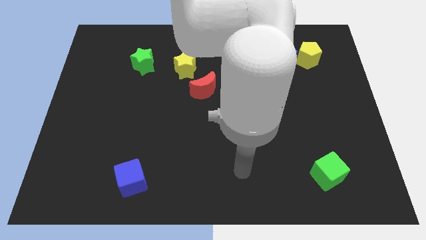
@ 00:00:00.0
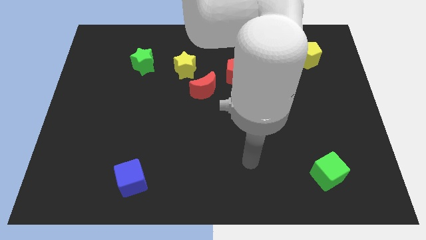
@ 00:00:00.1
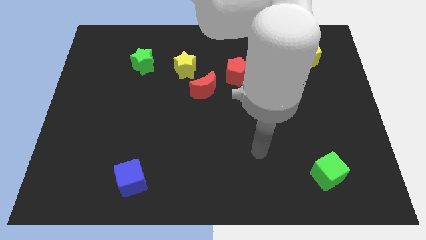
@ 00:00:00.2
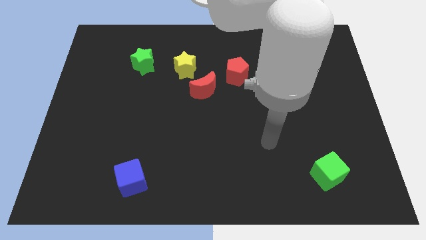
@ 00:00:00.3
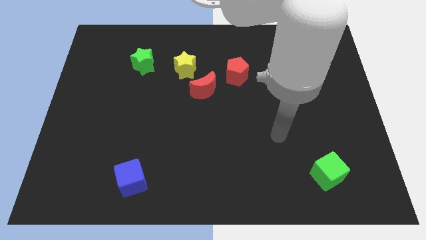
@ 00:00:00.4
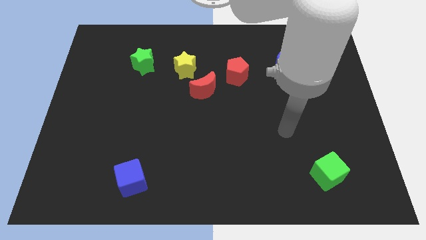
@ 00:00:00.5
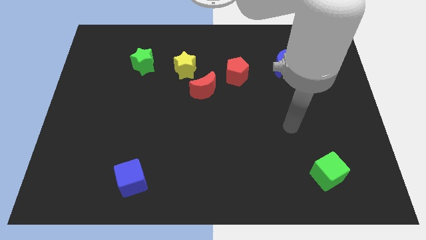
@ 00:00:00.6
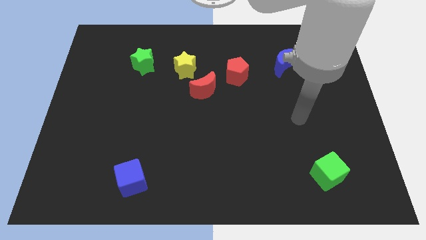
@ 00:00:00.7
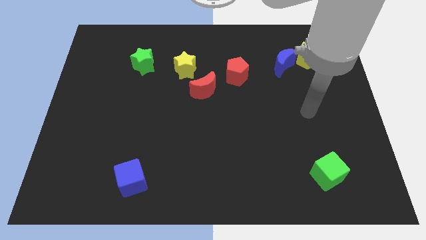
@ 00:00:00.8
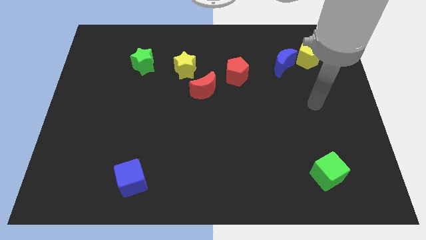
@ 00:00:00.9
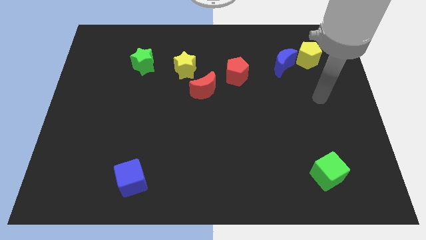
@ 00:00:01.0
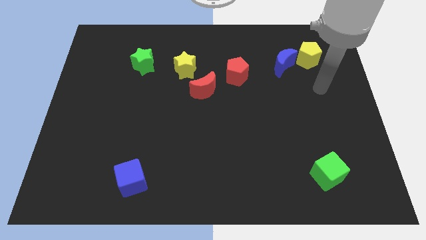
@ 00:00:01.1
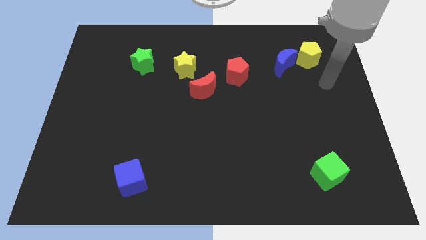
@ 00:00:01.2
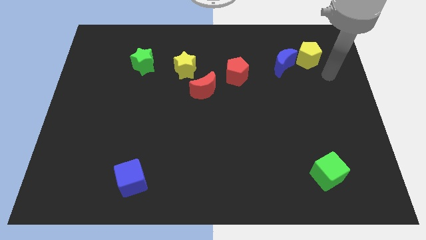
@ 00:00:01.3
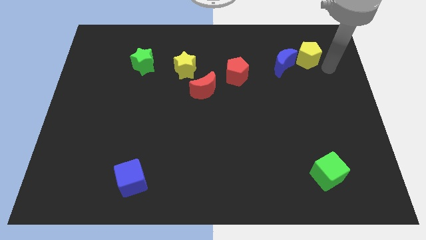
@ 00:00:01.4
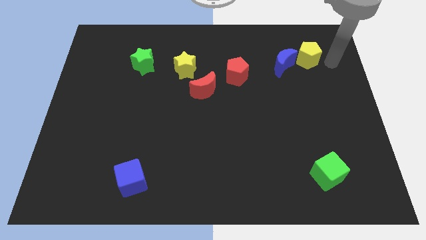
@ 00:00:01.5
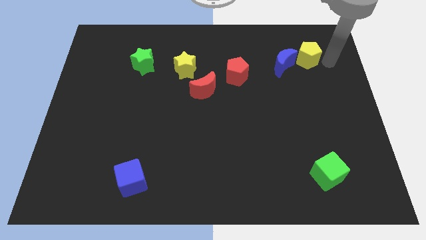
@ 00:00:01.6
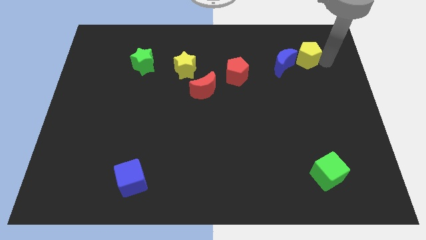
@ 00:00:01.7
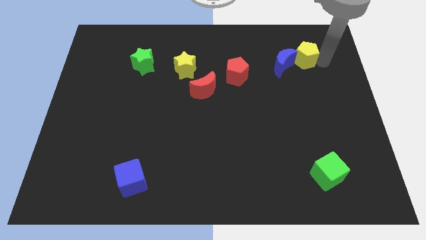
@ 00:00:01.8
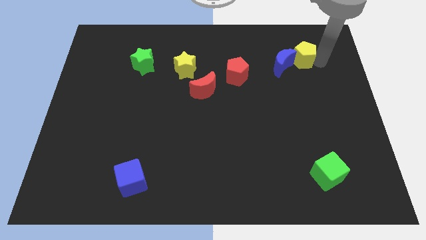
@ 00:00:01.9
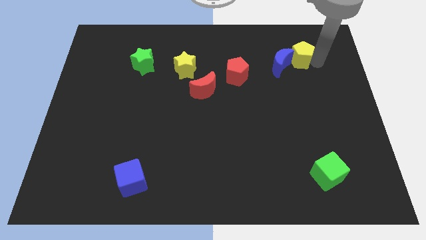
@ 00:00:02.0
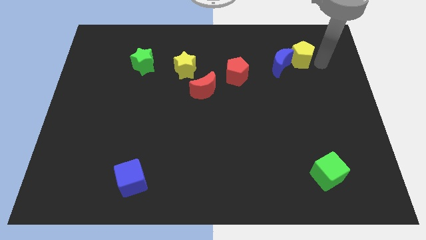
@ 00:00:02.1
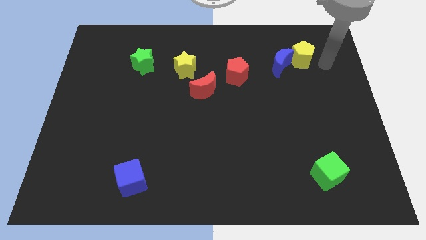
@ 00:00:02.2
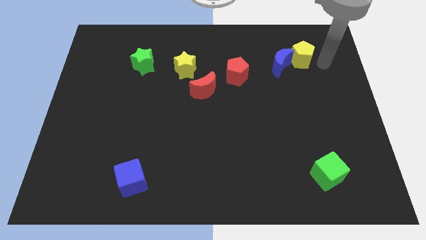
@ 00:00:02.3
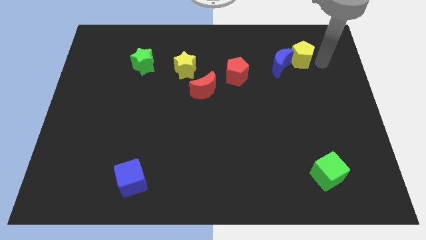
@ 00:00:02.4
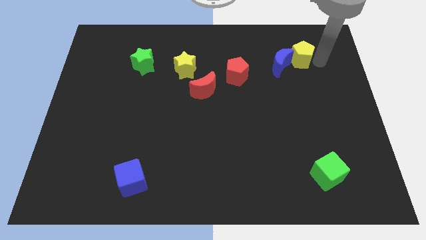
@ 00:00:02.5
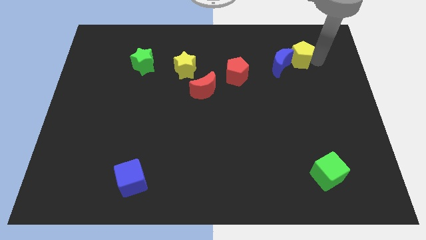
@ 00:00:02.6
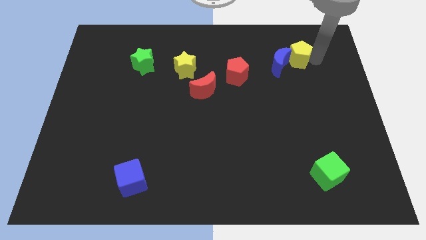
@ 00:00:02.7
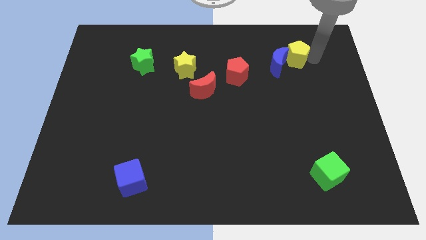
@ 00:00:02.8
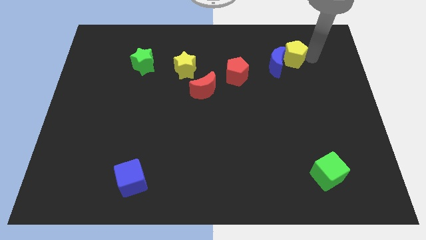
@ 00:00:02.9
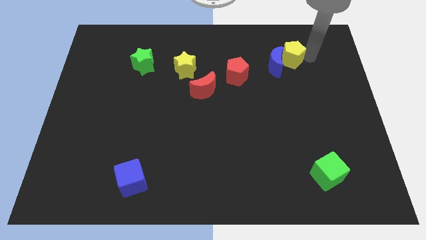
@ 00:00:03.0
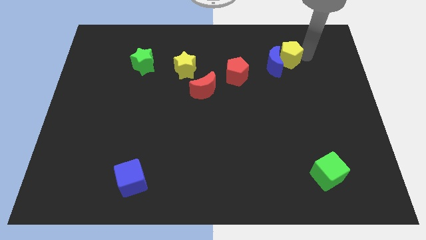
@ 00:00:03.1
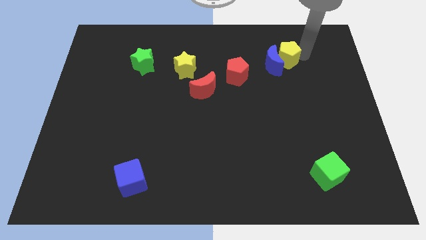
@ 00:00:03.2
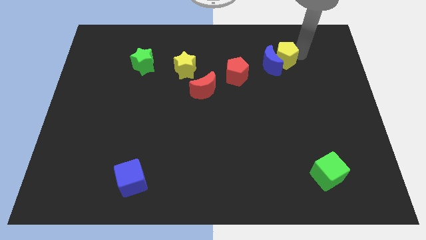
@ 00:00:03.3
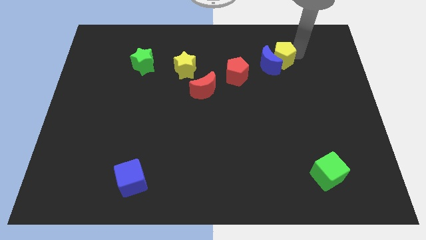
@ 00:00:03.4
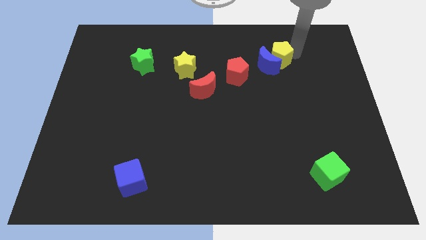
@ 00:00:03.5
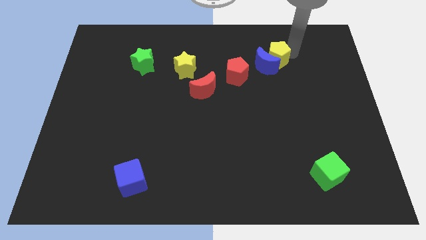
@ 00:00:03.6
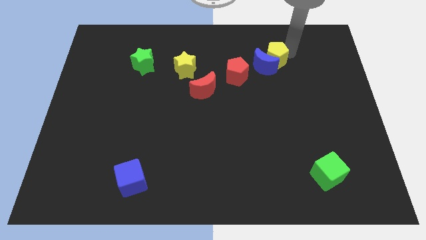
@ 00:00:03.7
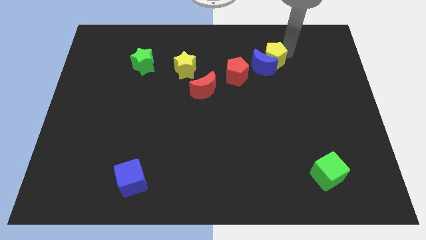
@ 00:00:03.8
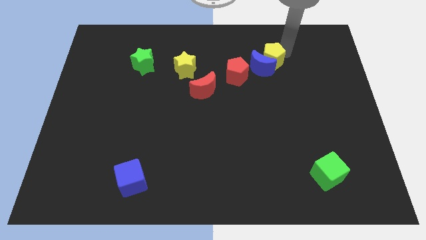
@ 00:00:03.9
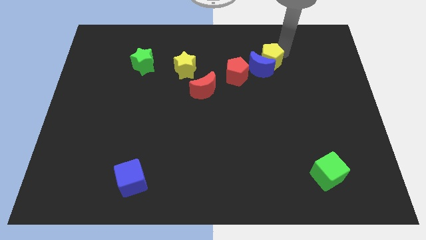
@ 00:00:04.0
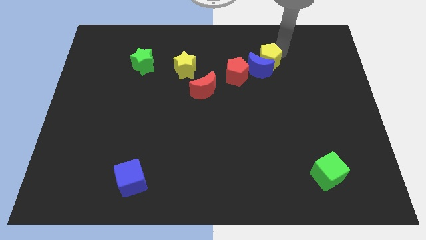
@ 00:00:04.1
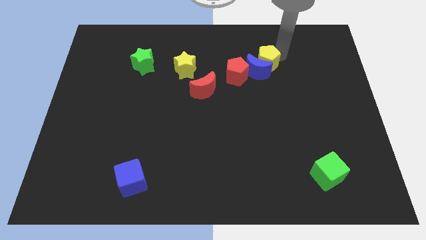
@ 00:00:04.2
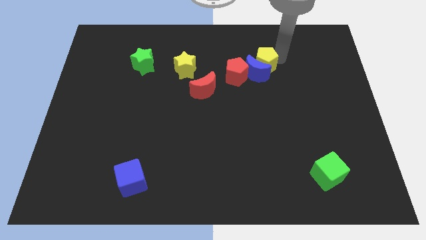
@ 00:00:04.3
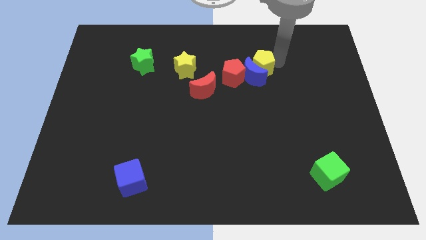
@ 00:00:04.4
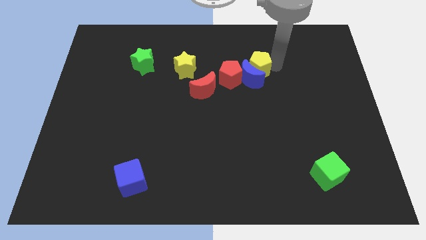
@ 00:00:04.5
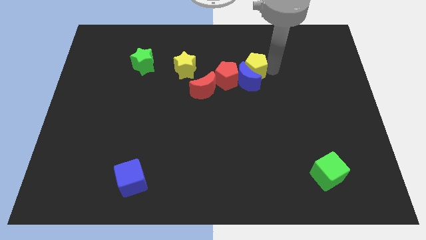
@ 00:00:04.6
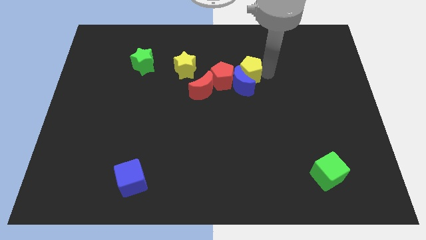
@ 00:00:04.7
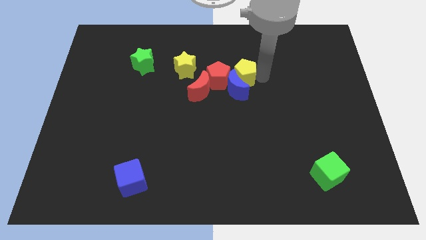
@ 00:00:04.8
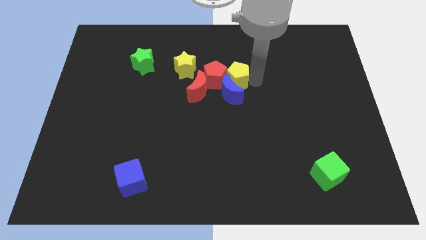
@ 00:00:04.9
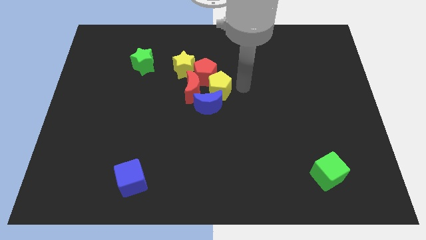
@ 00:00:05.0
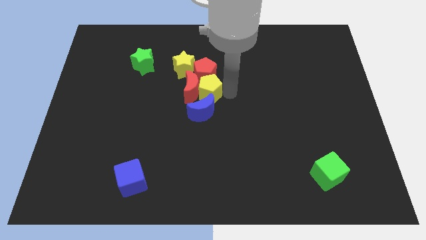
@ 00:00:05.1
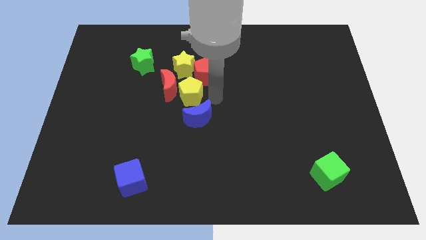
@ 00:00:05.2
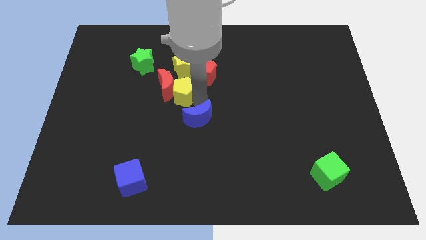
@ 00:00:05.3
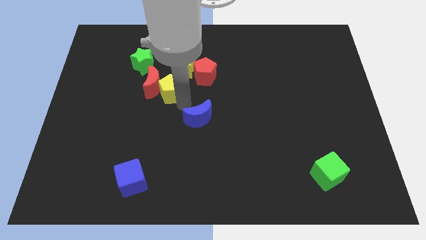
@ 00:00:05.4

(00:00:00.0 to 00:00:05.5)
put the yellow pentagon diagonally down and to the right of the green star

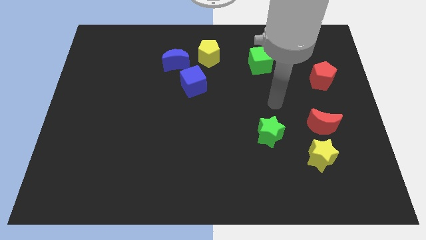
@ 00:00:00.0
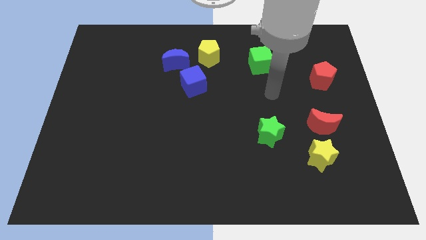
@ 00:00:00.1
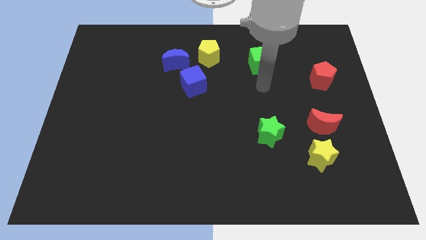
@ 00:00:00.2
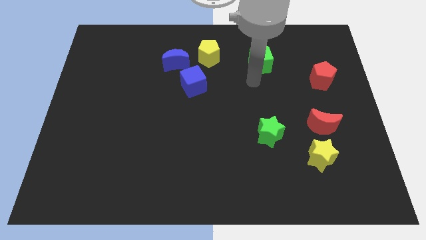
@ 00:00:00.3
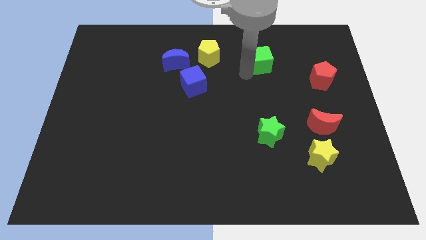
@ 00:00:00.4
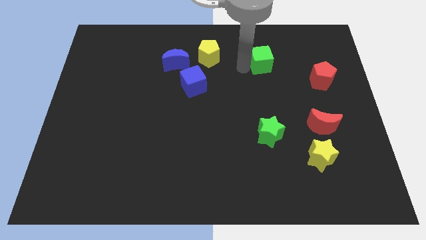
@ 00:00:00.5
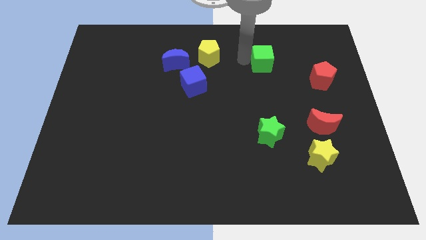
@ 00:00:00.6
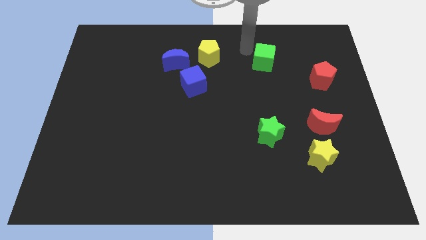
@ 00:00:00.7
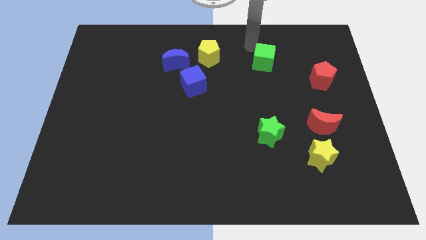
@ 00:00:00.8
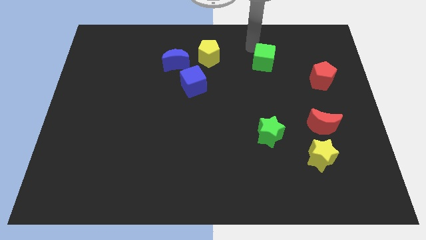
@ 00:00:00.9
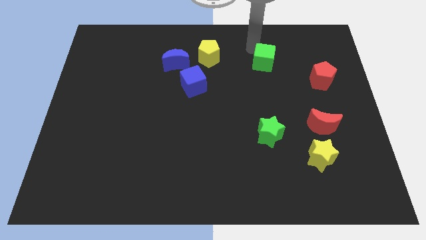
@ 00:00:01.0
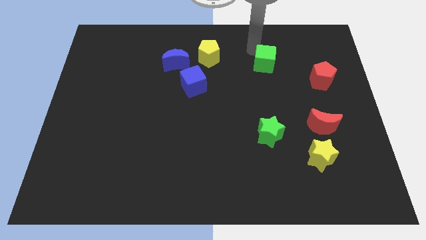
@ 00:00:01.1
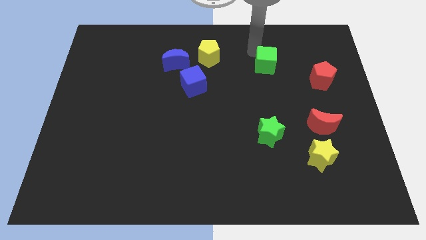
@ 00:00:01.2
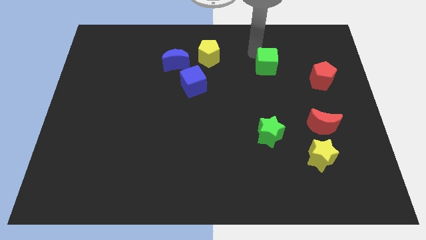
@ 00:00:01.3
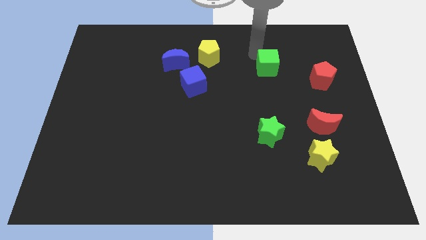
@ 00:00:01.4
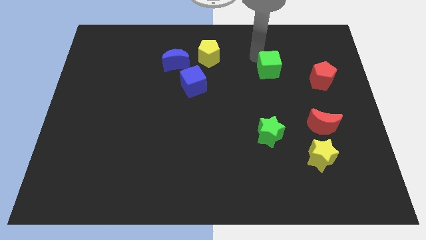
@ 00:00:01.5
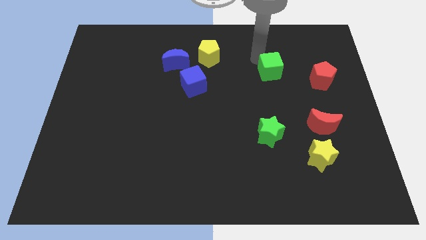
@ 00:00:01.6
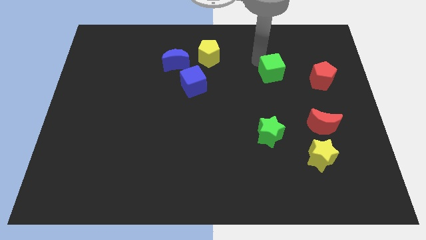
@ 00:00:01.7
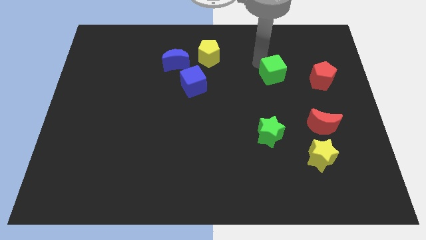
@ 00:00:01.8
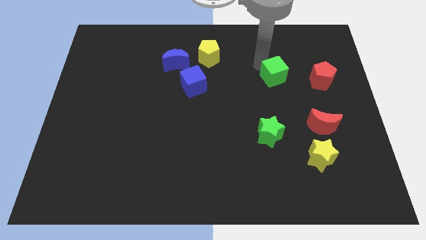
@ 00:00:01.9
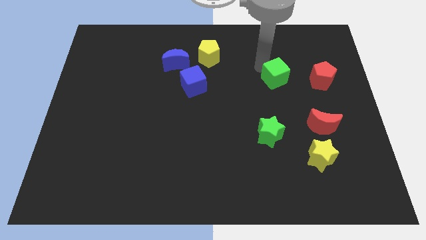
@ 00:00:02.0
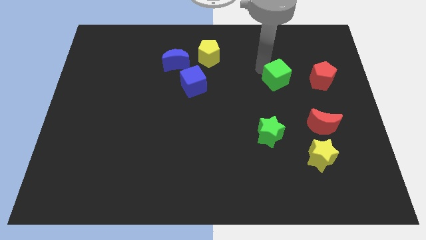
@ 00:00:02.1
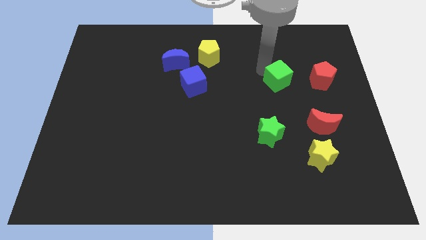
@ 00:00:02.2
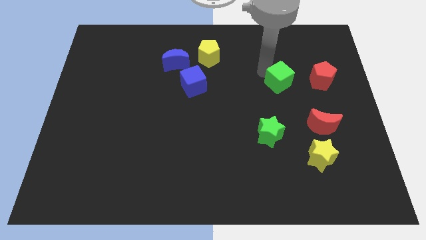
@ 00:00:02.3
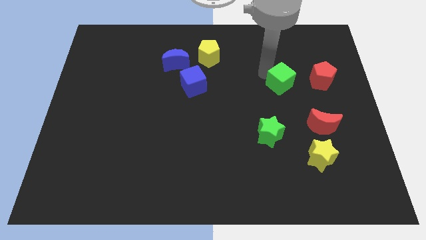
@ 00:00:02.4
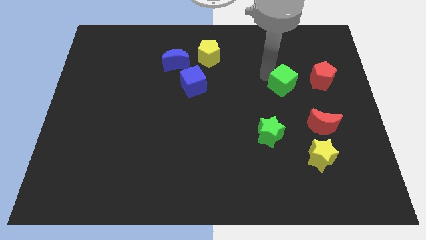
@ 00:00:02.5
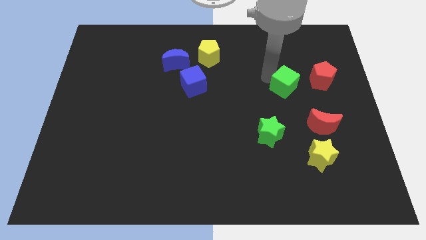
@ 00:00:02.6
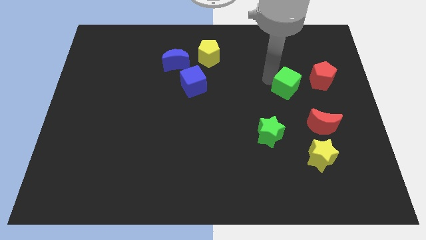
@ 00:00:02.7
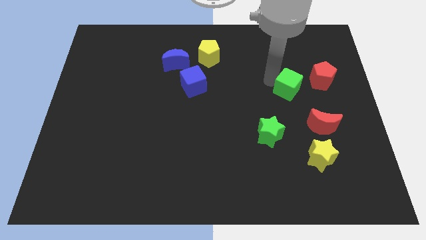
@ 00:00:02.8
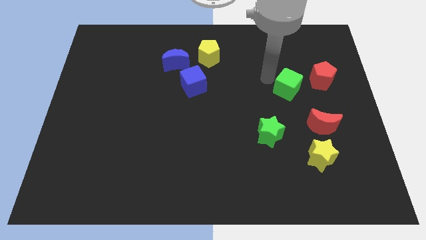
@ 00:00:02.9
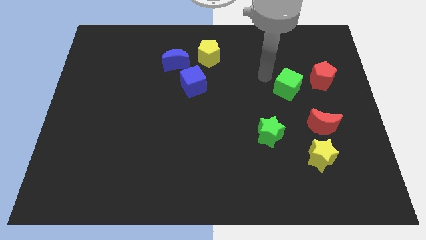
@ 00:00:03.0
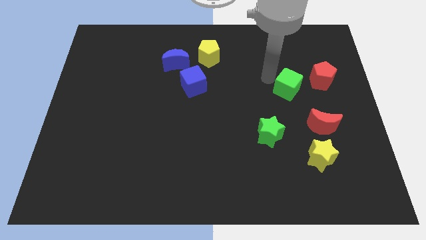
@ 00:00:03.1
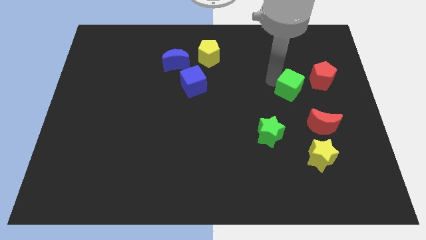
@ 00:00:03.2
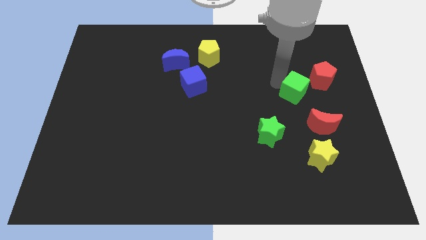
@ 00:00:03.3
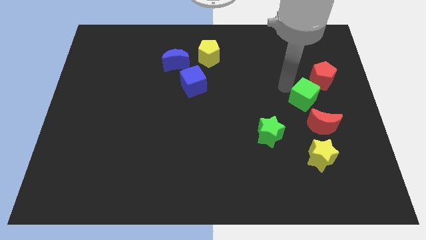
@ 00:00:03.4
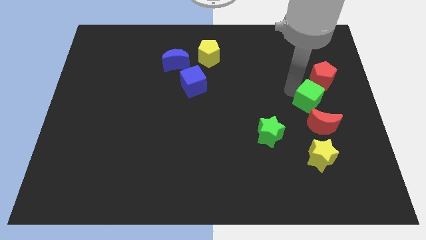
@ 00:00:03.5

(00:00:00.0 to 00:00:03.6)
put the green cube below the red pentagon
